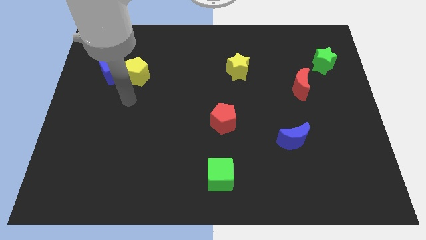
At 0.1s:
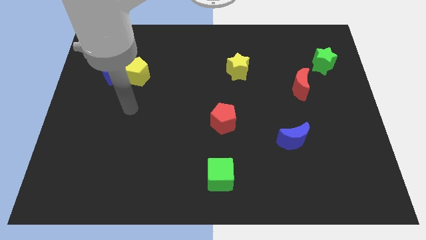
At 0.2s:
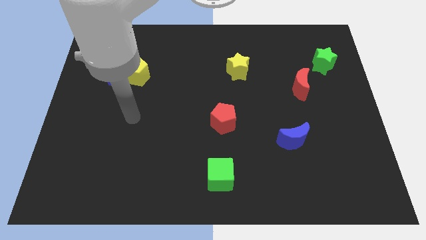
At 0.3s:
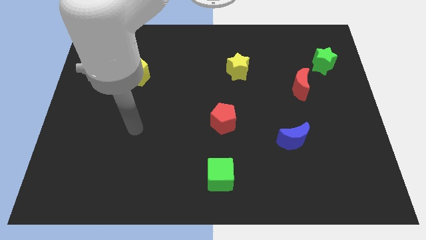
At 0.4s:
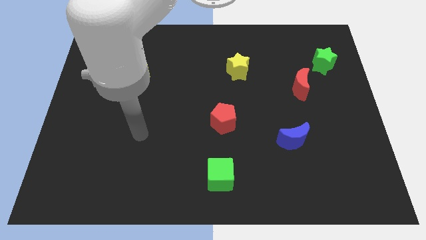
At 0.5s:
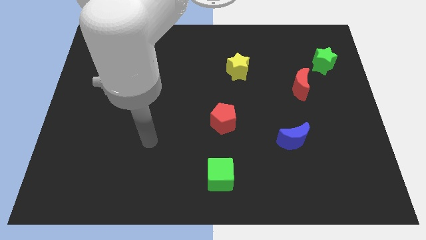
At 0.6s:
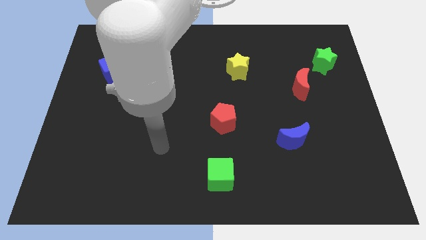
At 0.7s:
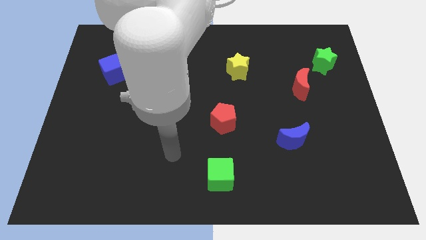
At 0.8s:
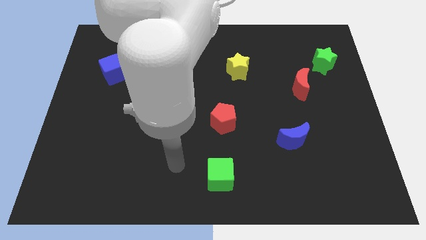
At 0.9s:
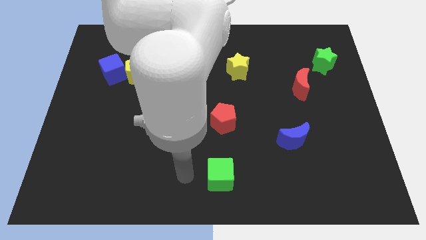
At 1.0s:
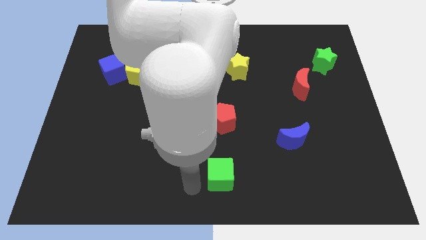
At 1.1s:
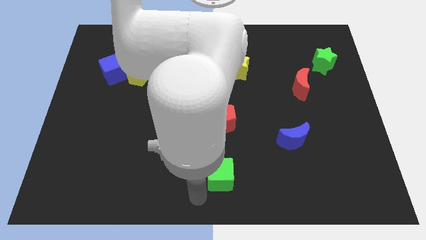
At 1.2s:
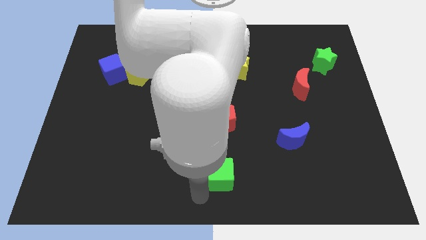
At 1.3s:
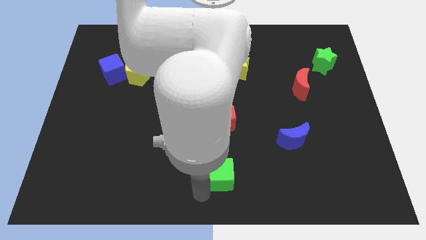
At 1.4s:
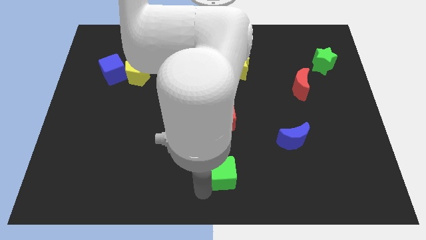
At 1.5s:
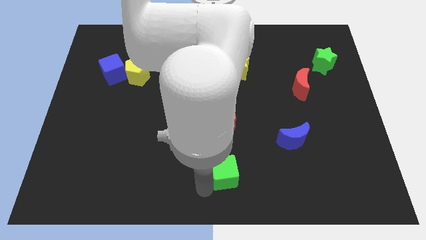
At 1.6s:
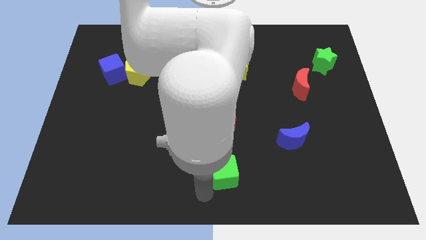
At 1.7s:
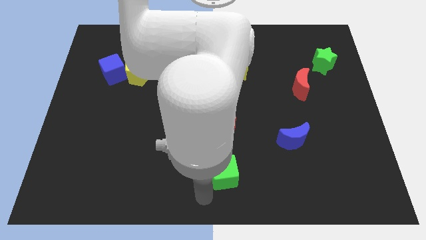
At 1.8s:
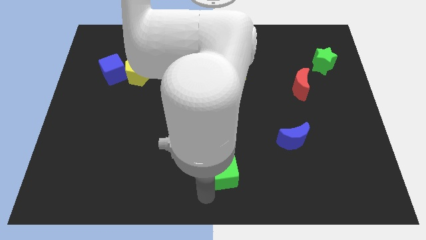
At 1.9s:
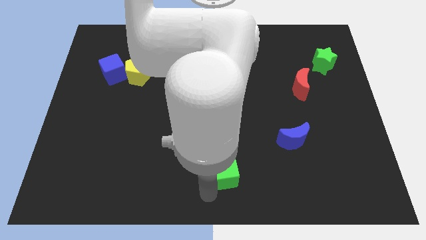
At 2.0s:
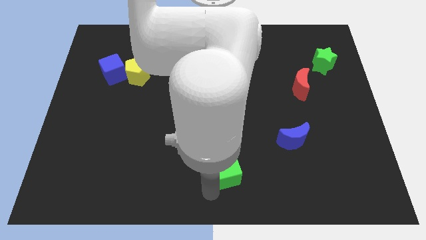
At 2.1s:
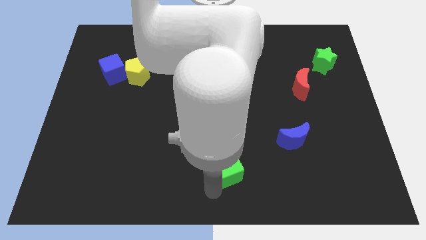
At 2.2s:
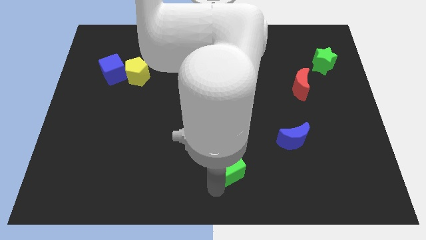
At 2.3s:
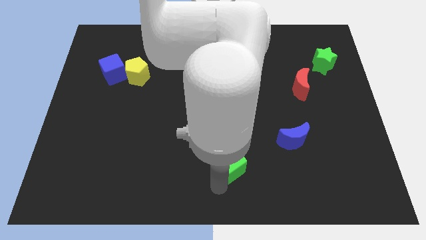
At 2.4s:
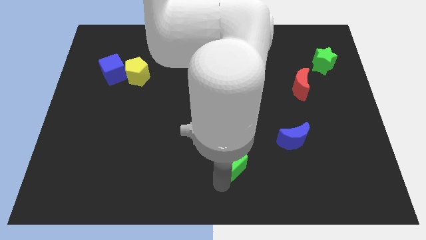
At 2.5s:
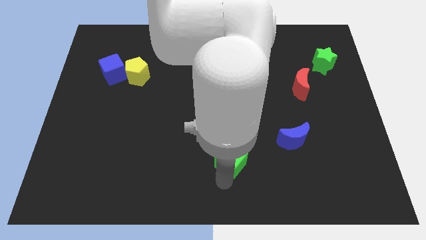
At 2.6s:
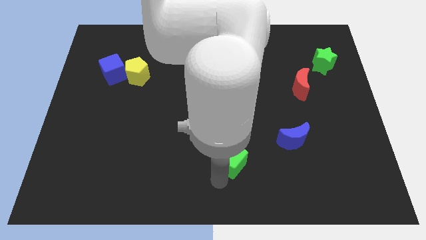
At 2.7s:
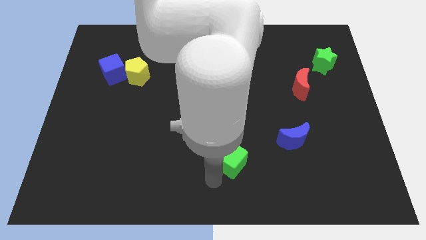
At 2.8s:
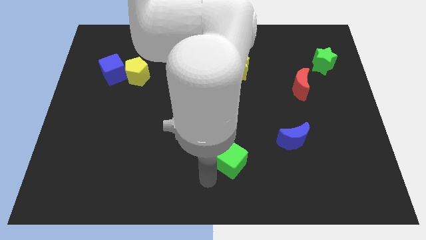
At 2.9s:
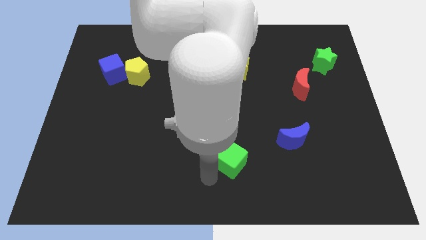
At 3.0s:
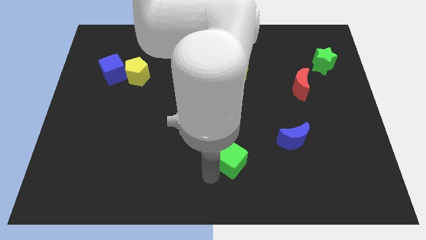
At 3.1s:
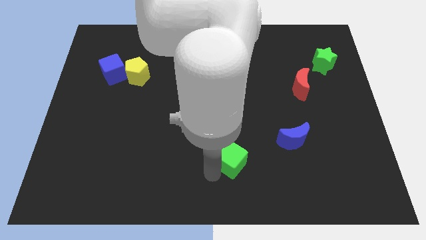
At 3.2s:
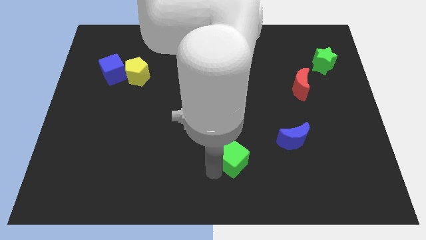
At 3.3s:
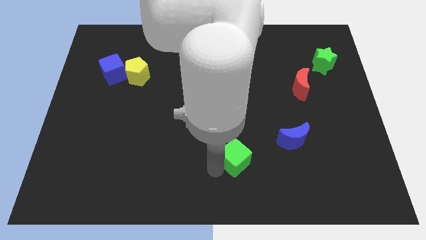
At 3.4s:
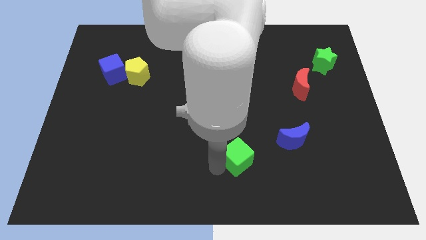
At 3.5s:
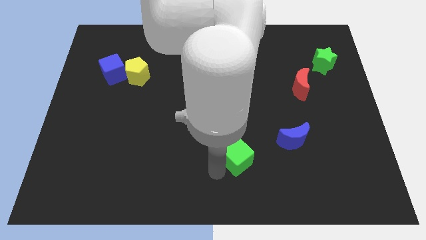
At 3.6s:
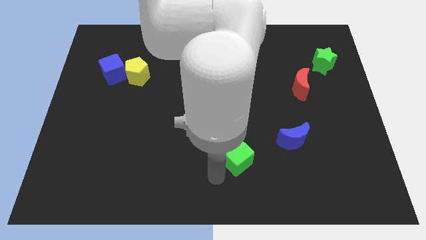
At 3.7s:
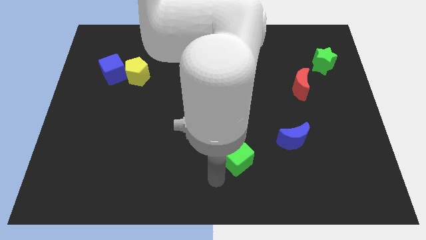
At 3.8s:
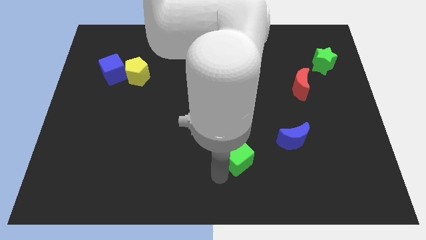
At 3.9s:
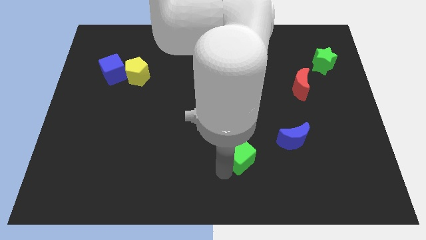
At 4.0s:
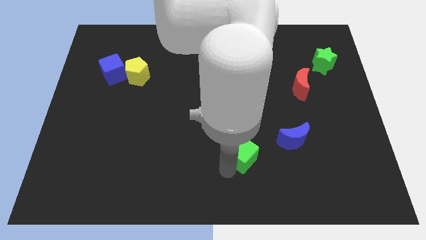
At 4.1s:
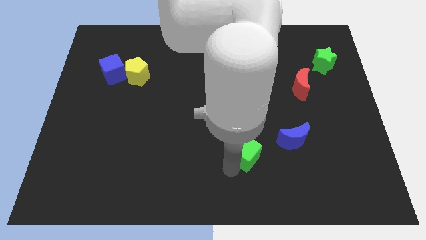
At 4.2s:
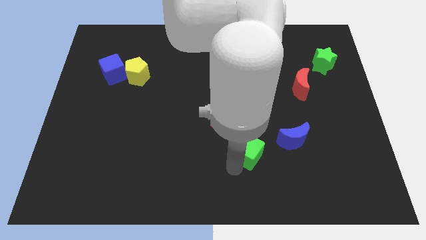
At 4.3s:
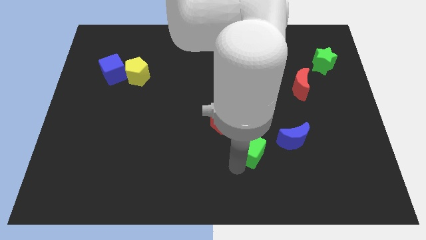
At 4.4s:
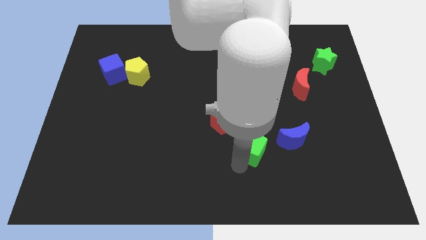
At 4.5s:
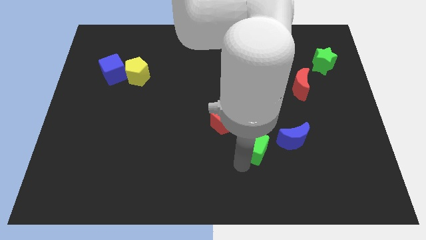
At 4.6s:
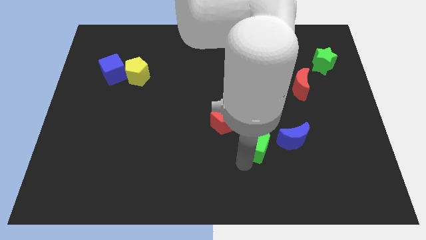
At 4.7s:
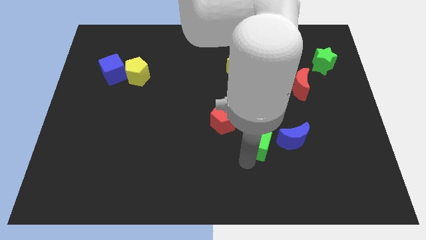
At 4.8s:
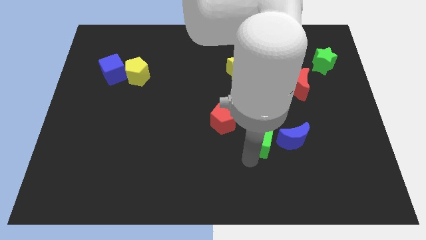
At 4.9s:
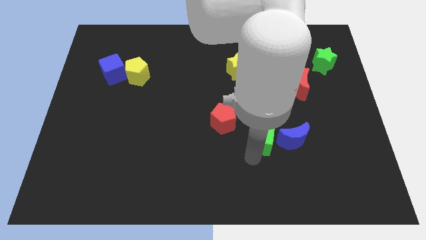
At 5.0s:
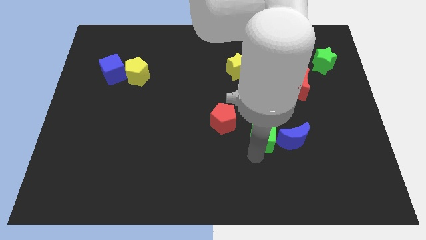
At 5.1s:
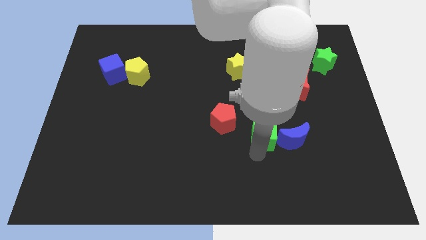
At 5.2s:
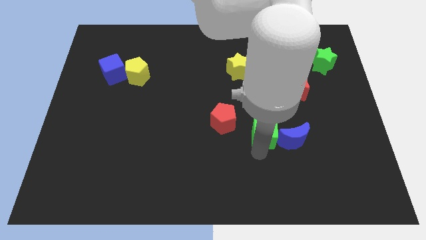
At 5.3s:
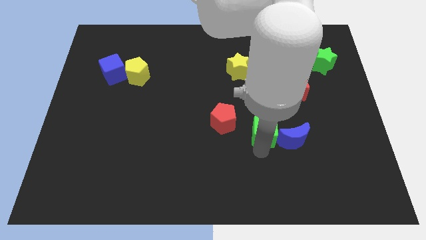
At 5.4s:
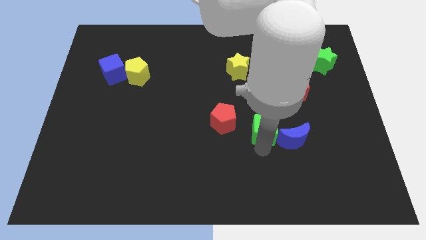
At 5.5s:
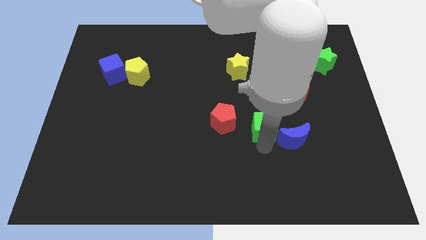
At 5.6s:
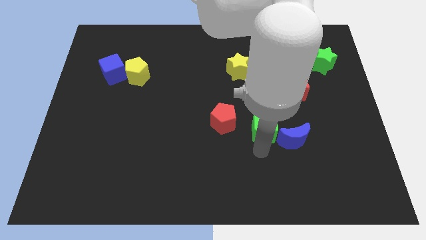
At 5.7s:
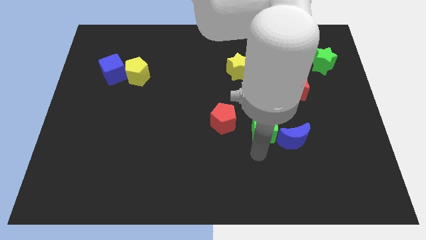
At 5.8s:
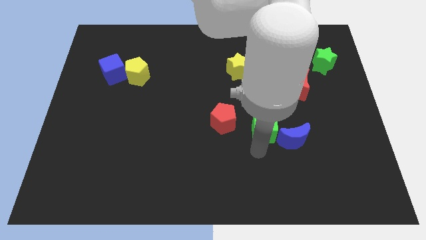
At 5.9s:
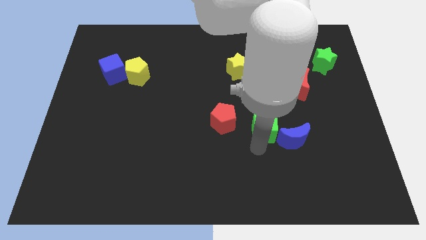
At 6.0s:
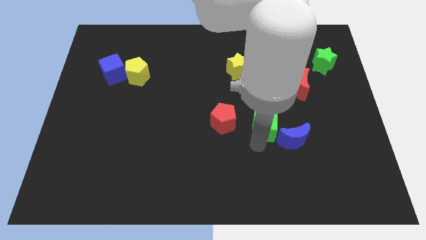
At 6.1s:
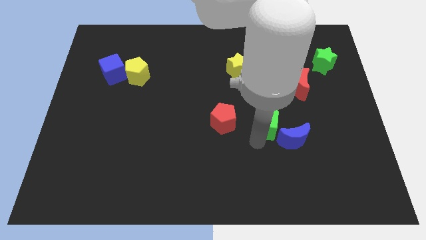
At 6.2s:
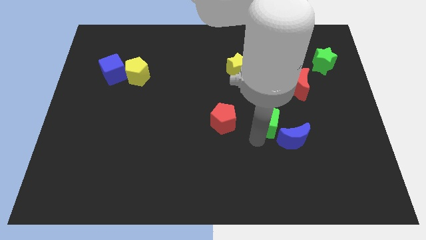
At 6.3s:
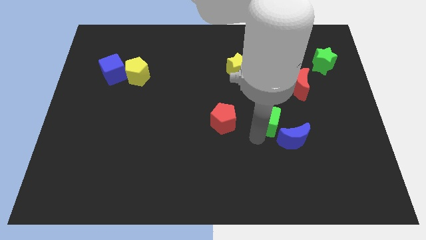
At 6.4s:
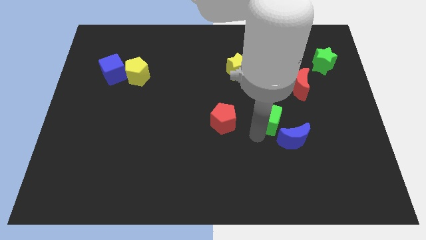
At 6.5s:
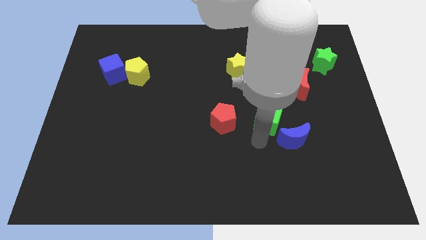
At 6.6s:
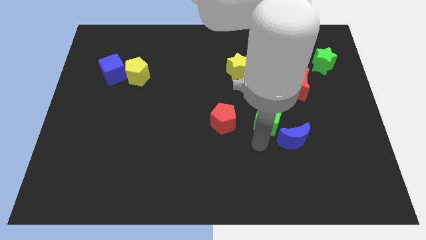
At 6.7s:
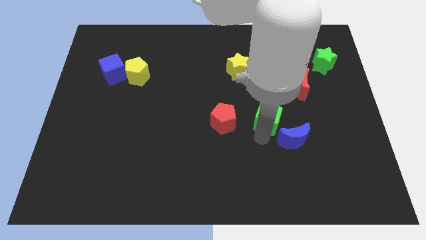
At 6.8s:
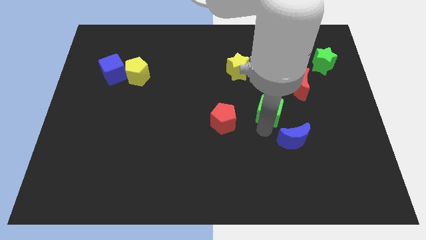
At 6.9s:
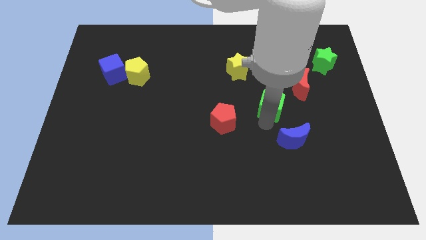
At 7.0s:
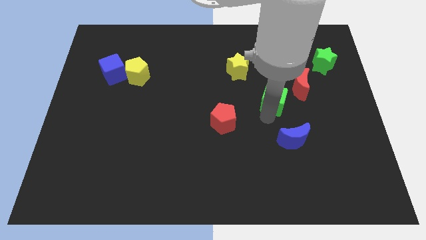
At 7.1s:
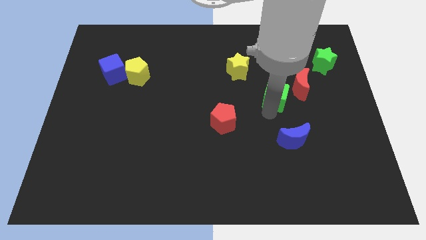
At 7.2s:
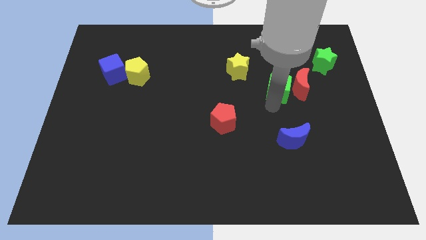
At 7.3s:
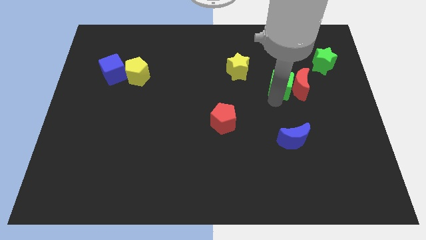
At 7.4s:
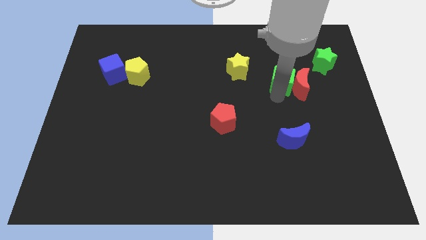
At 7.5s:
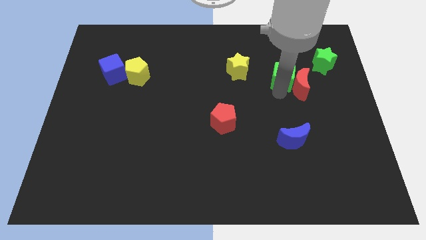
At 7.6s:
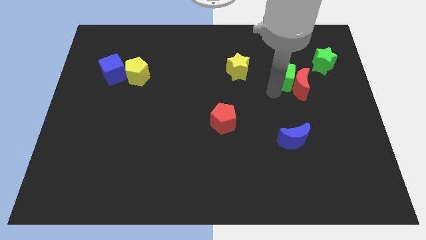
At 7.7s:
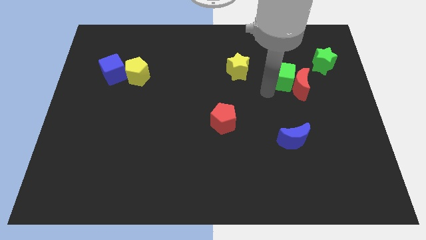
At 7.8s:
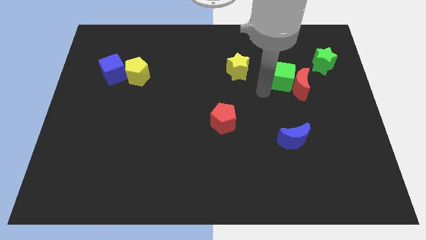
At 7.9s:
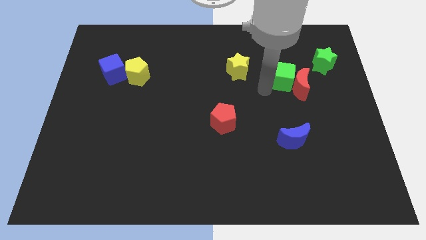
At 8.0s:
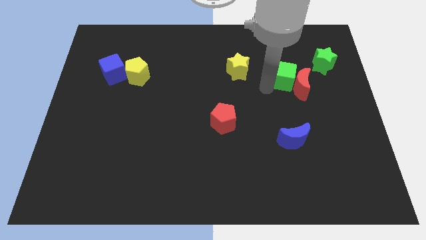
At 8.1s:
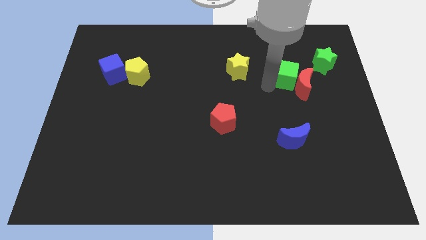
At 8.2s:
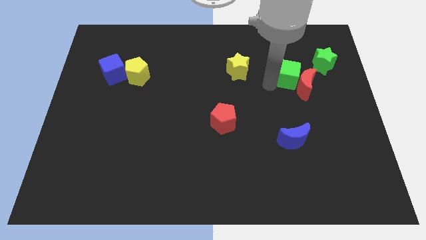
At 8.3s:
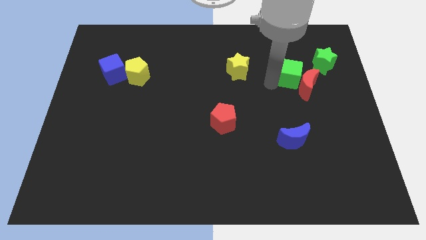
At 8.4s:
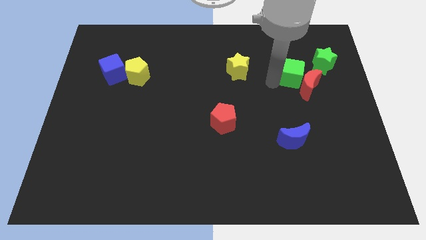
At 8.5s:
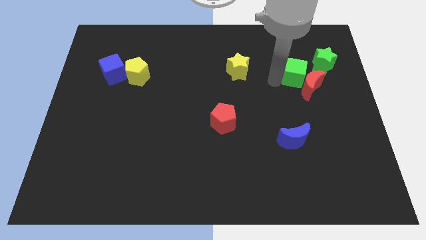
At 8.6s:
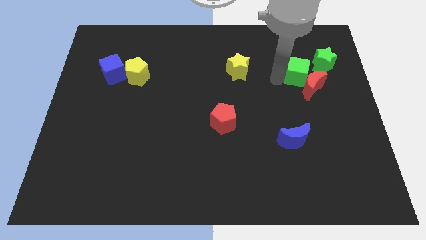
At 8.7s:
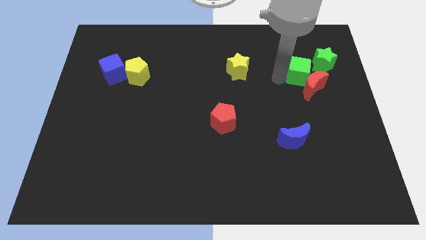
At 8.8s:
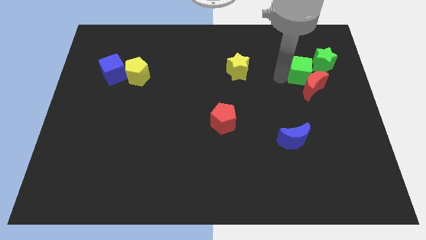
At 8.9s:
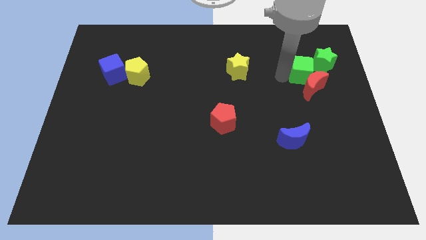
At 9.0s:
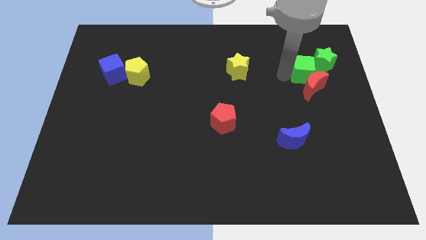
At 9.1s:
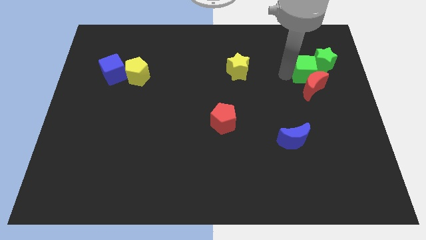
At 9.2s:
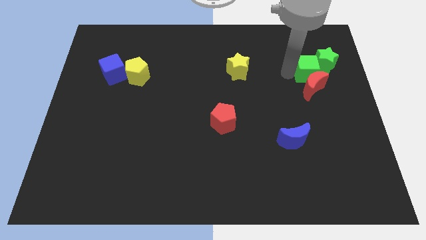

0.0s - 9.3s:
put the green cube close to the green star
